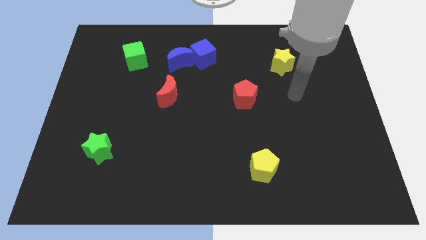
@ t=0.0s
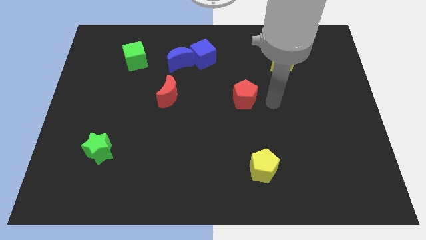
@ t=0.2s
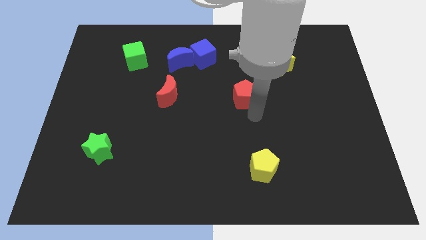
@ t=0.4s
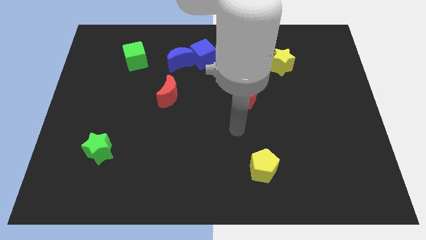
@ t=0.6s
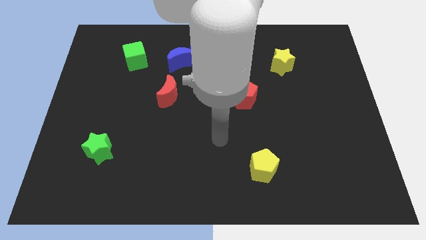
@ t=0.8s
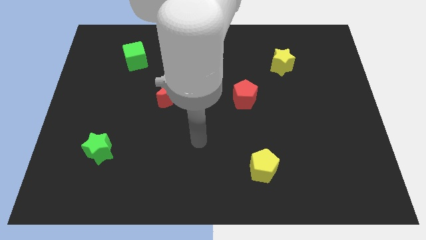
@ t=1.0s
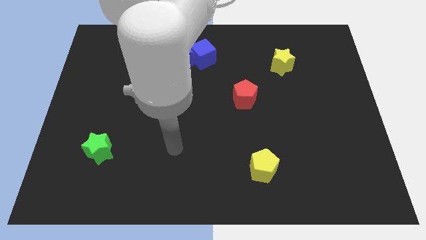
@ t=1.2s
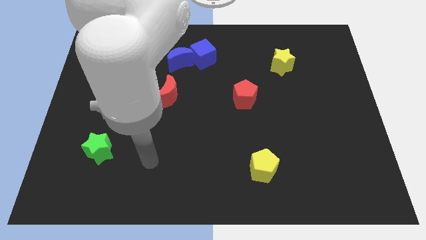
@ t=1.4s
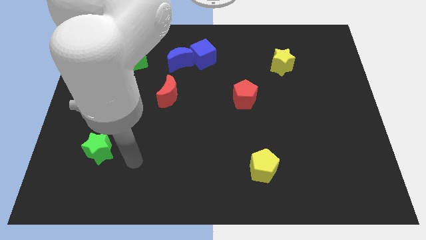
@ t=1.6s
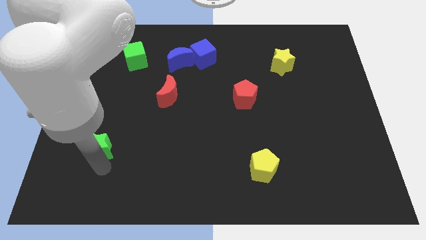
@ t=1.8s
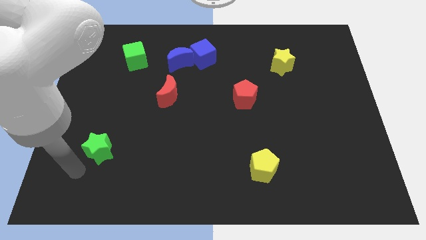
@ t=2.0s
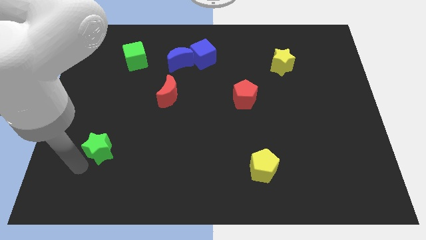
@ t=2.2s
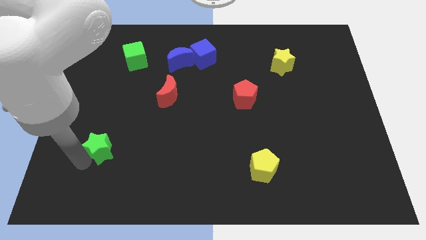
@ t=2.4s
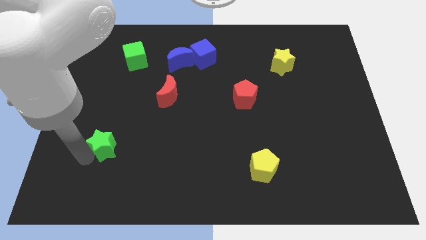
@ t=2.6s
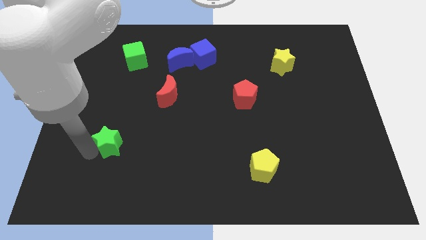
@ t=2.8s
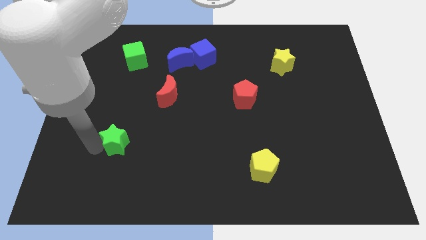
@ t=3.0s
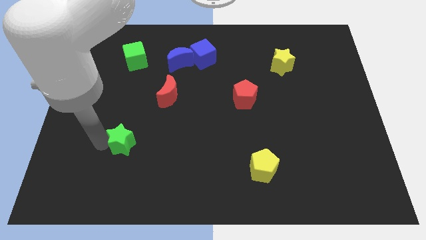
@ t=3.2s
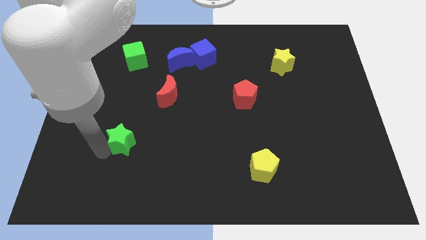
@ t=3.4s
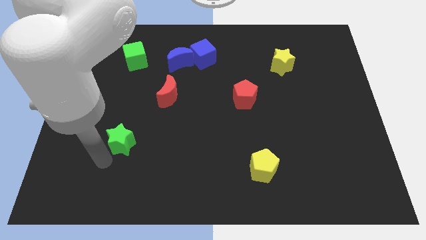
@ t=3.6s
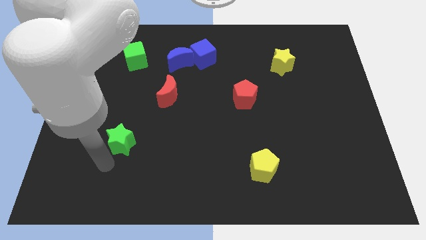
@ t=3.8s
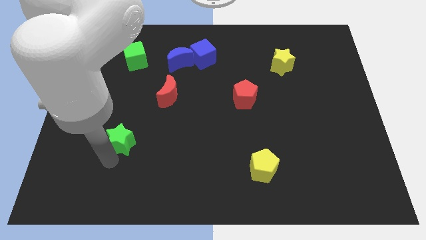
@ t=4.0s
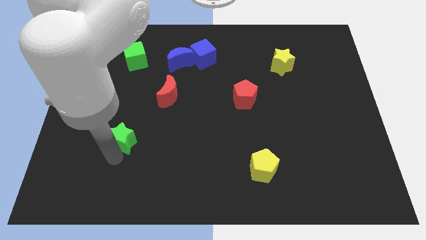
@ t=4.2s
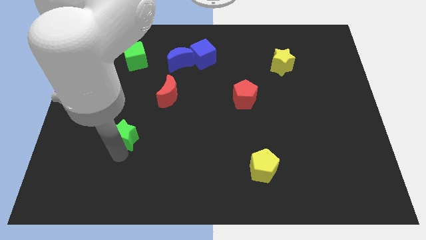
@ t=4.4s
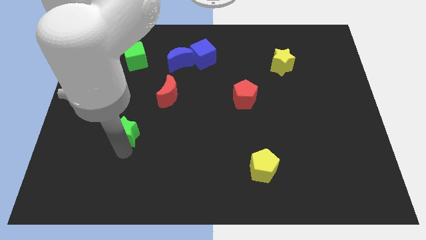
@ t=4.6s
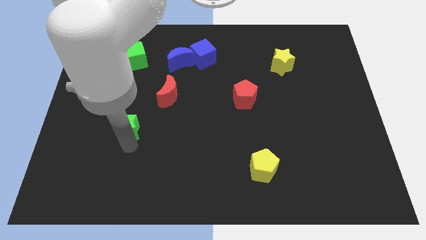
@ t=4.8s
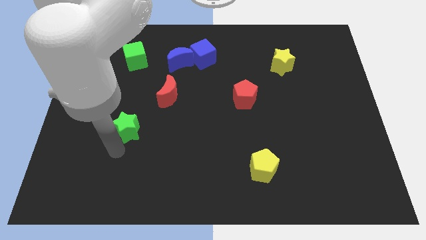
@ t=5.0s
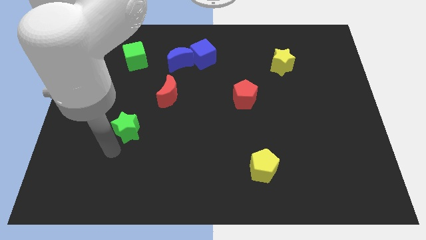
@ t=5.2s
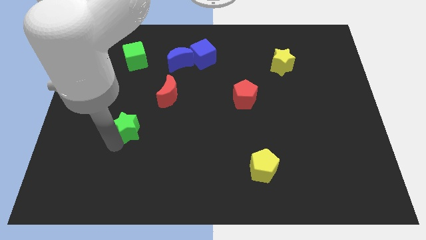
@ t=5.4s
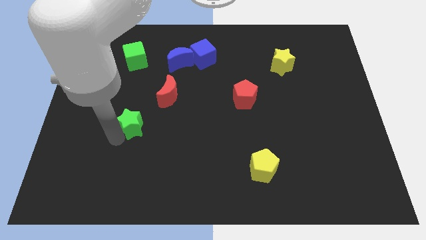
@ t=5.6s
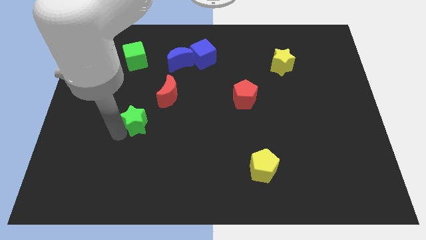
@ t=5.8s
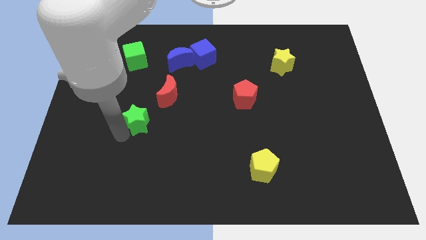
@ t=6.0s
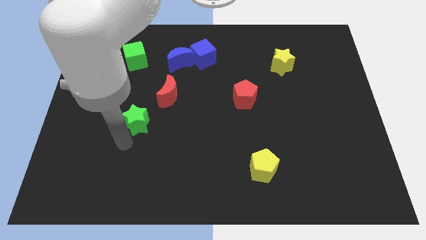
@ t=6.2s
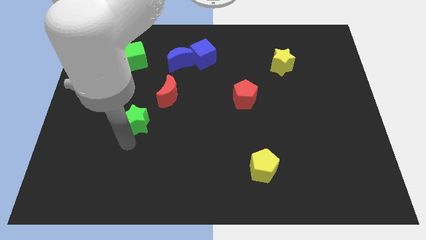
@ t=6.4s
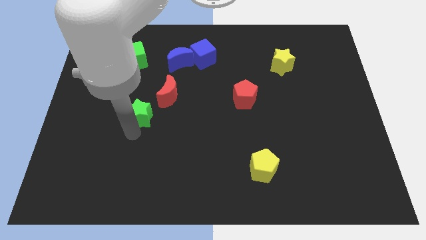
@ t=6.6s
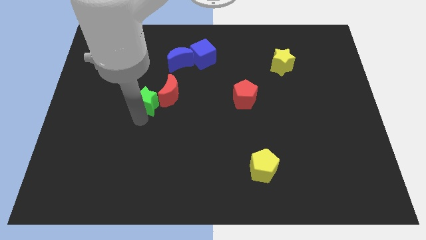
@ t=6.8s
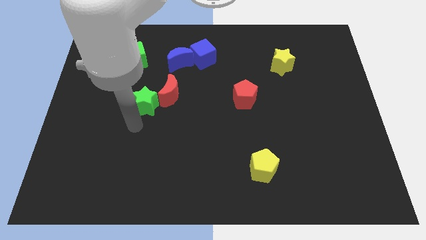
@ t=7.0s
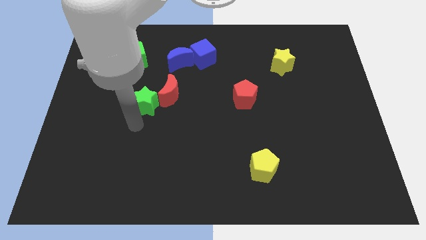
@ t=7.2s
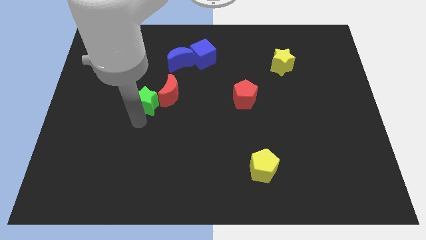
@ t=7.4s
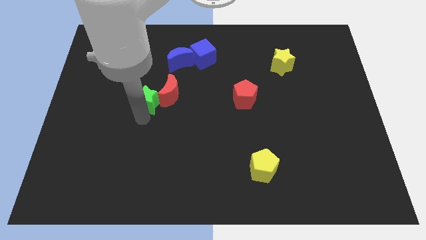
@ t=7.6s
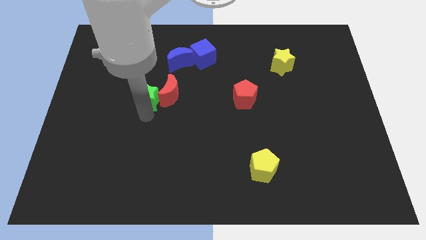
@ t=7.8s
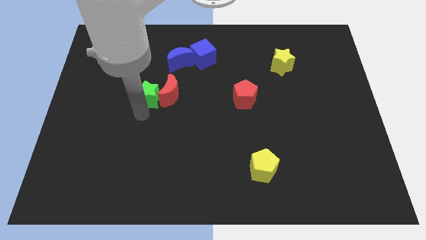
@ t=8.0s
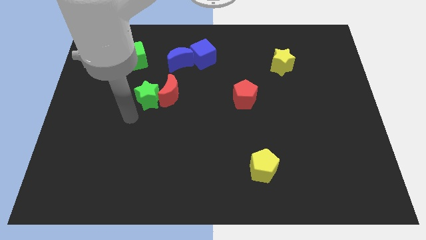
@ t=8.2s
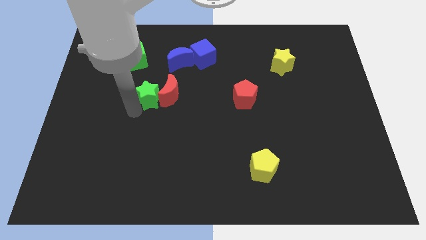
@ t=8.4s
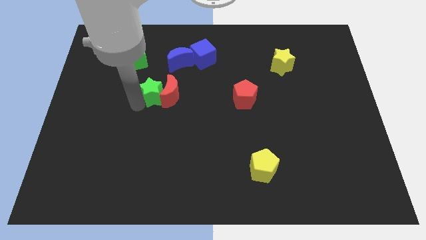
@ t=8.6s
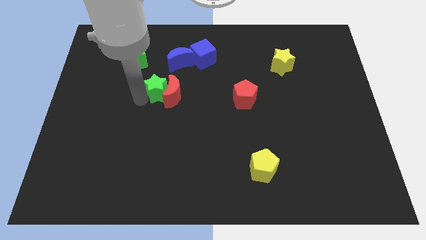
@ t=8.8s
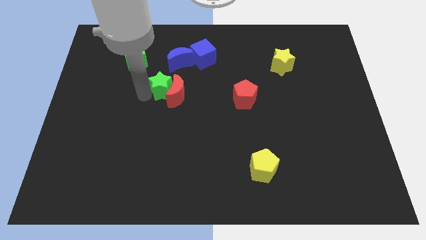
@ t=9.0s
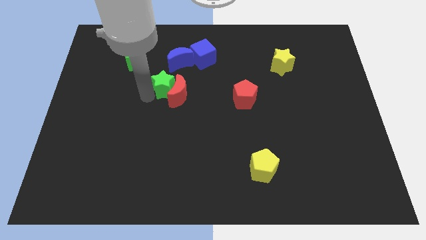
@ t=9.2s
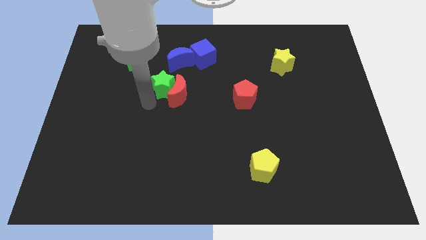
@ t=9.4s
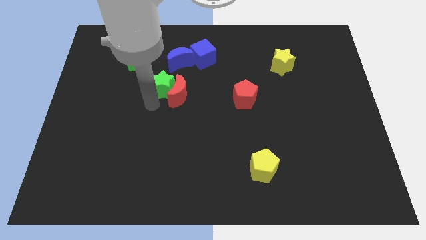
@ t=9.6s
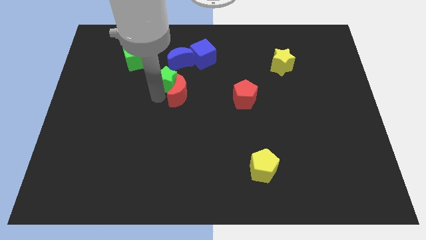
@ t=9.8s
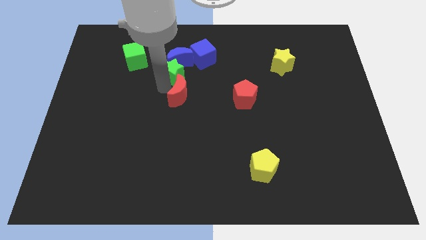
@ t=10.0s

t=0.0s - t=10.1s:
put the green star to the blue moon

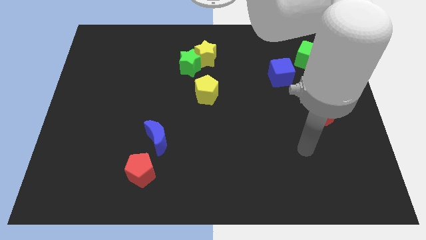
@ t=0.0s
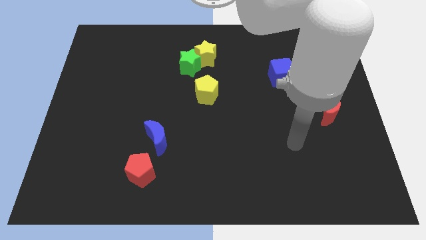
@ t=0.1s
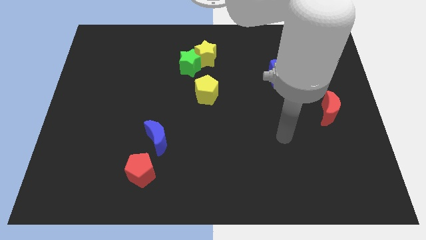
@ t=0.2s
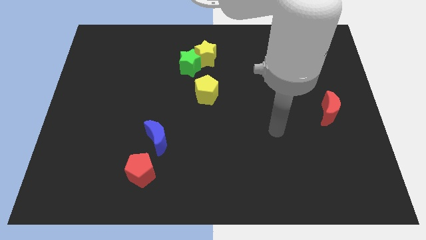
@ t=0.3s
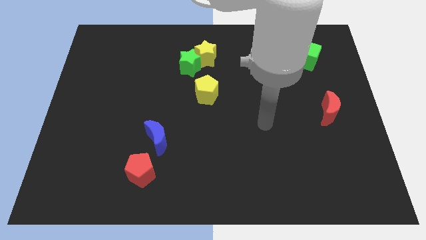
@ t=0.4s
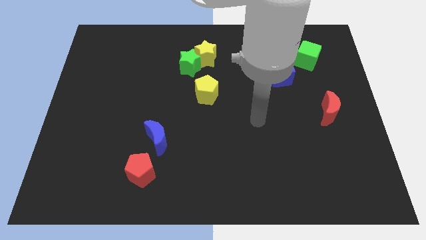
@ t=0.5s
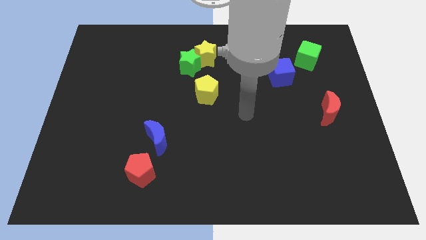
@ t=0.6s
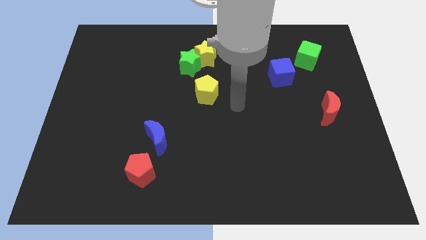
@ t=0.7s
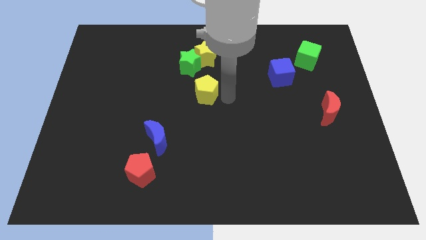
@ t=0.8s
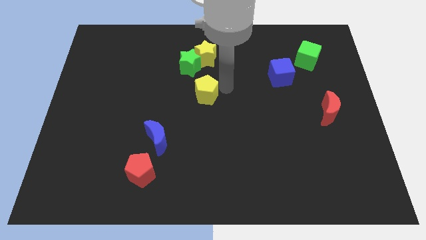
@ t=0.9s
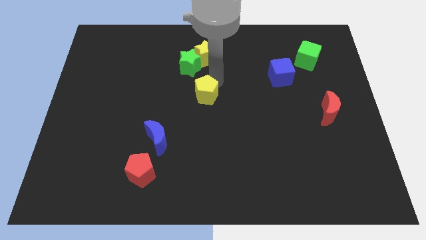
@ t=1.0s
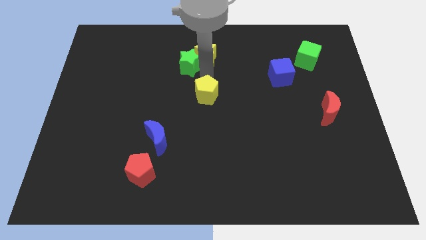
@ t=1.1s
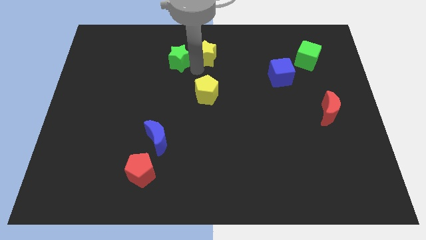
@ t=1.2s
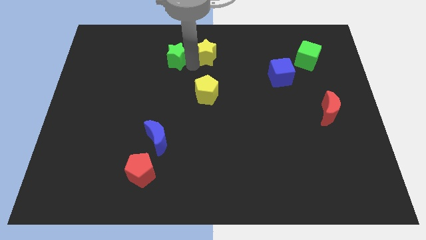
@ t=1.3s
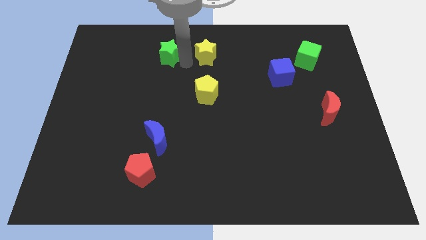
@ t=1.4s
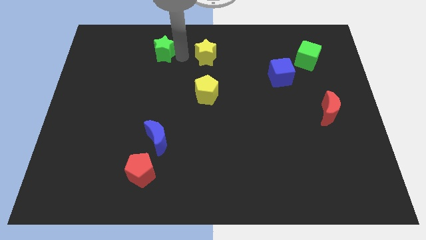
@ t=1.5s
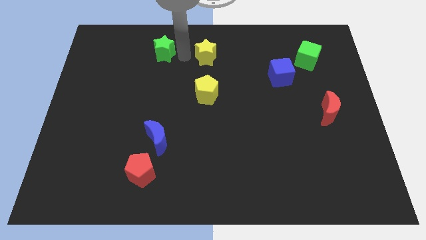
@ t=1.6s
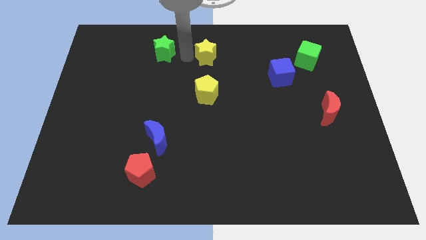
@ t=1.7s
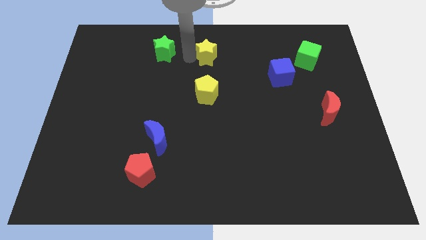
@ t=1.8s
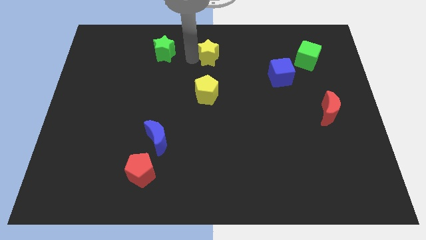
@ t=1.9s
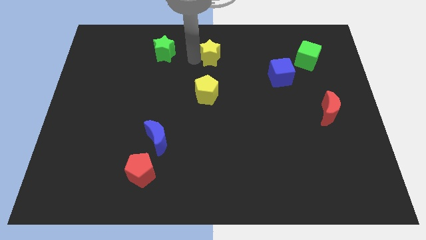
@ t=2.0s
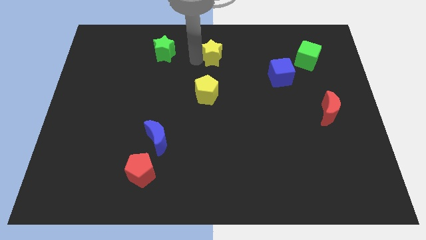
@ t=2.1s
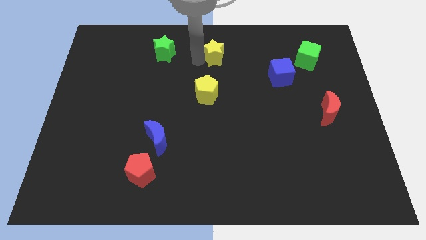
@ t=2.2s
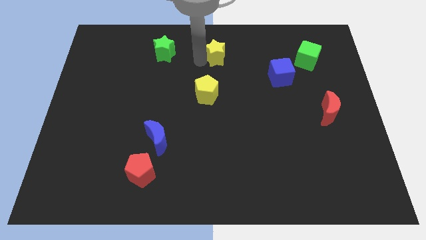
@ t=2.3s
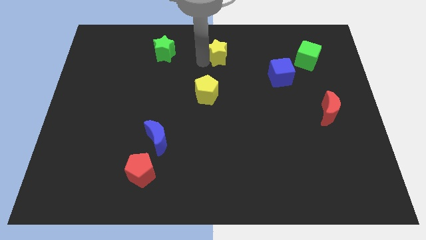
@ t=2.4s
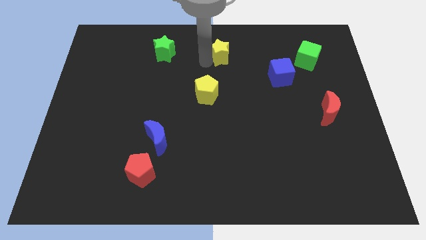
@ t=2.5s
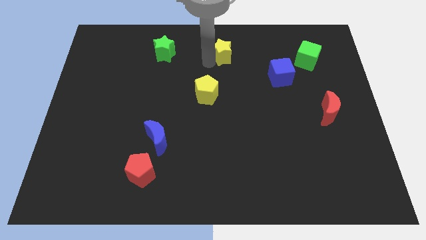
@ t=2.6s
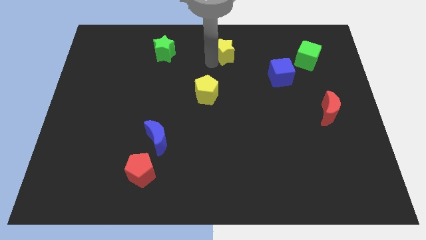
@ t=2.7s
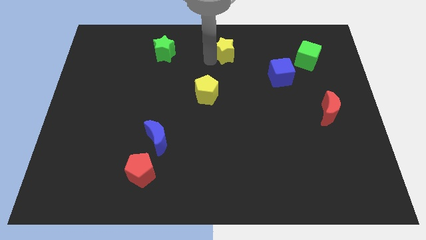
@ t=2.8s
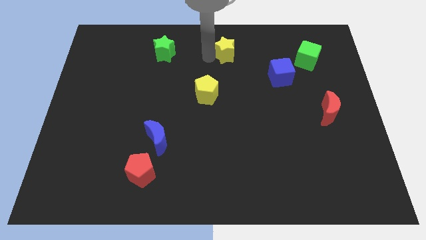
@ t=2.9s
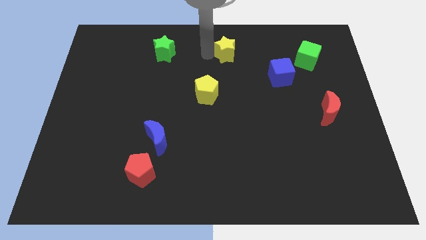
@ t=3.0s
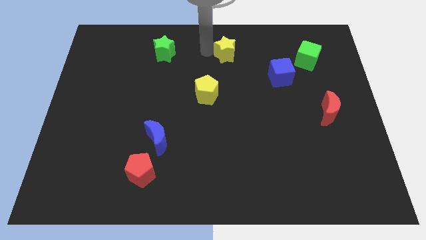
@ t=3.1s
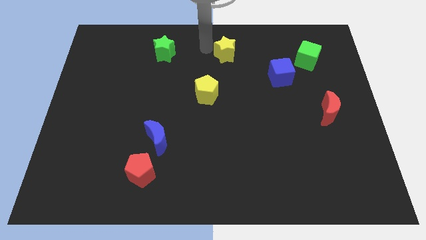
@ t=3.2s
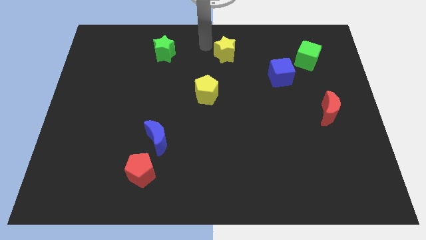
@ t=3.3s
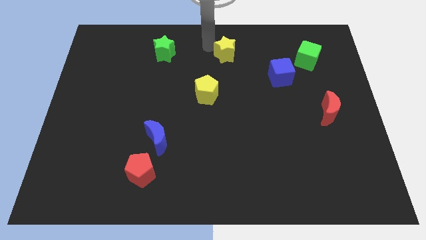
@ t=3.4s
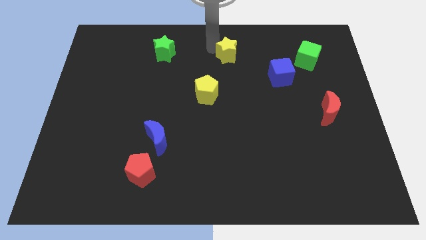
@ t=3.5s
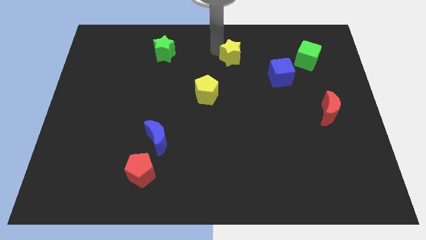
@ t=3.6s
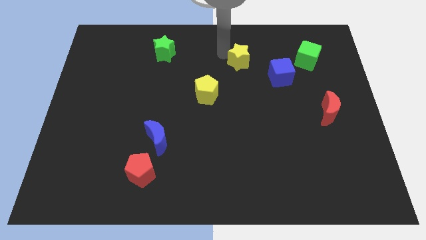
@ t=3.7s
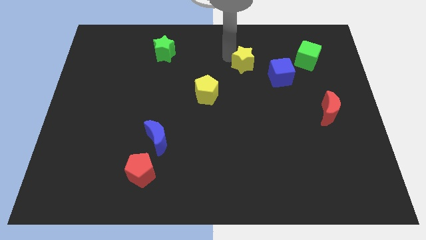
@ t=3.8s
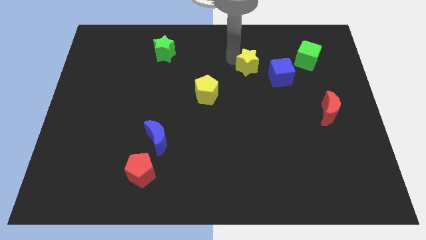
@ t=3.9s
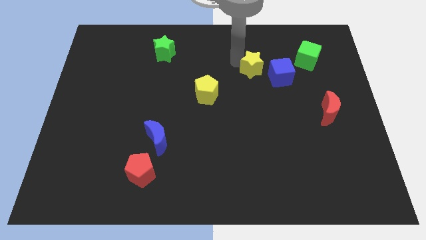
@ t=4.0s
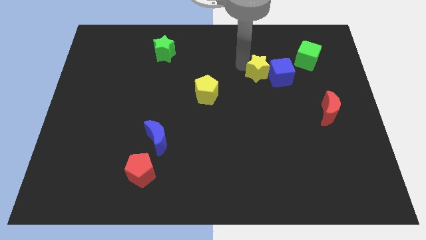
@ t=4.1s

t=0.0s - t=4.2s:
move the yellow star close to the blue cube
